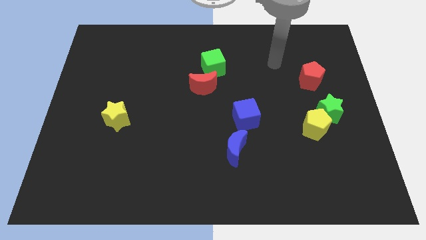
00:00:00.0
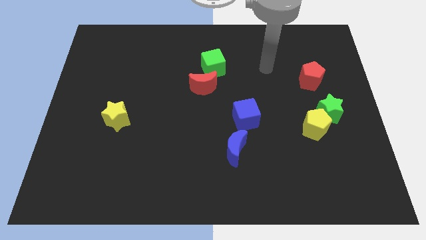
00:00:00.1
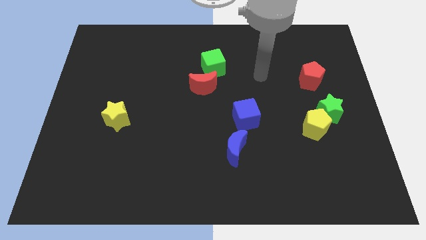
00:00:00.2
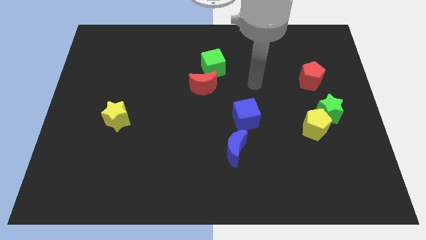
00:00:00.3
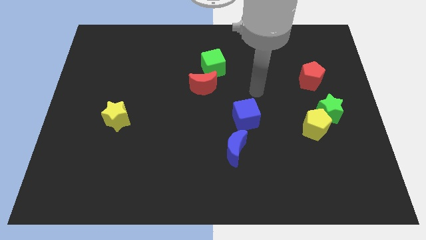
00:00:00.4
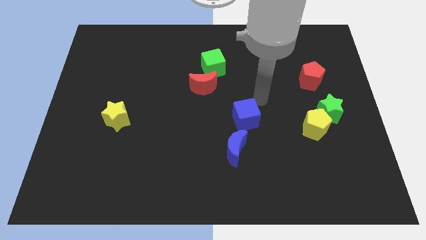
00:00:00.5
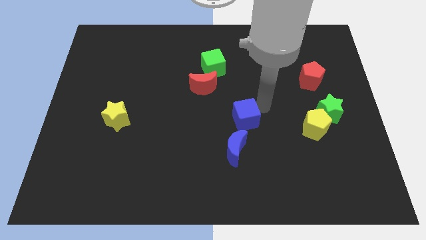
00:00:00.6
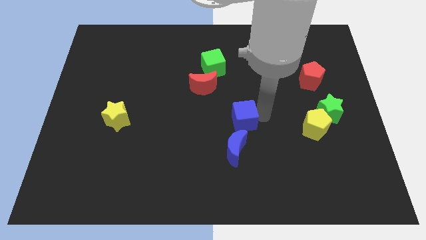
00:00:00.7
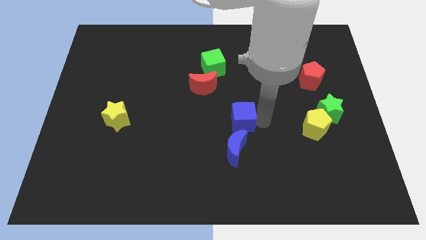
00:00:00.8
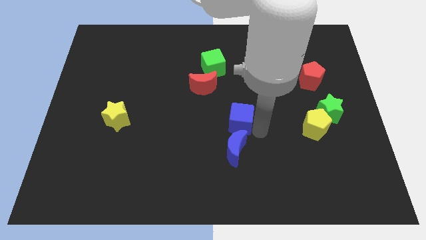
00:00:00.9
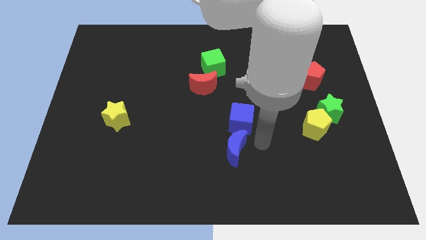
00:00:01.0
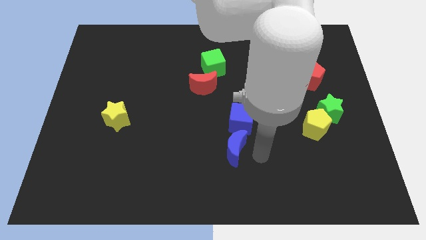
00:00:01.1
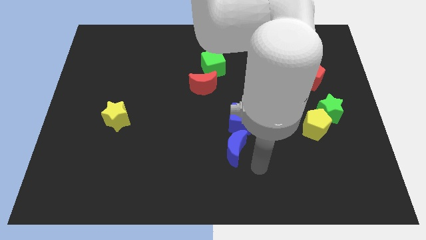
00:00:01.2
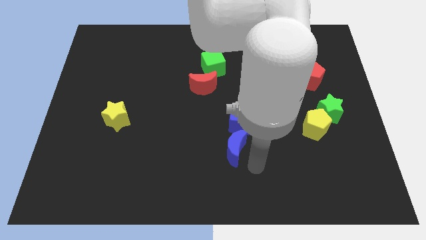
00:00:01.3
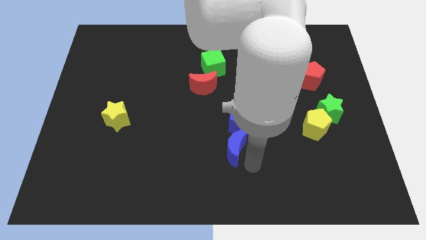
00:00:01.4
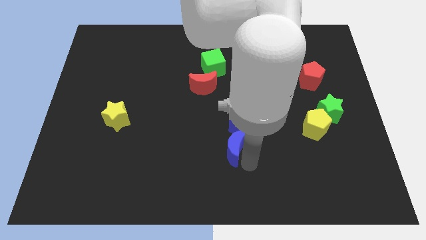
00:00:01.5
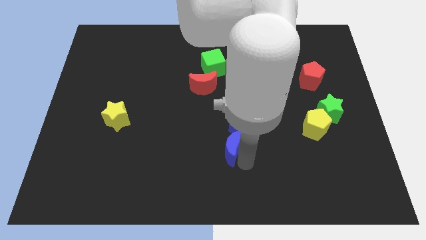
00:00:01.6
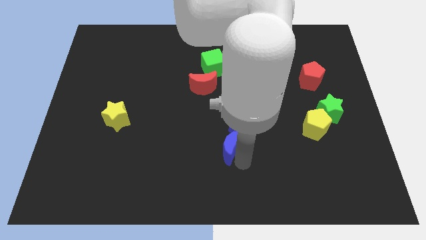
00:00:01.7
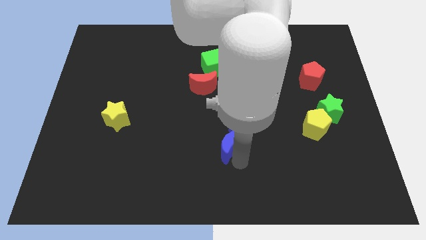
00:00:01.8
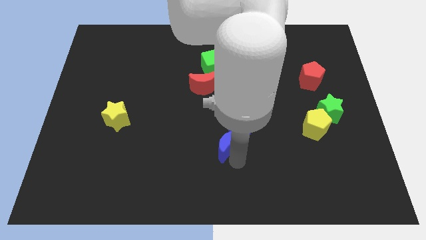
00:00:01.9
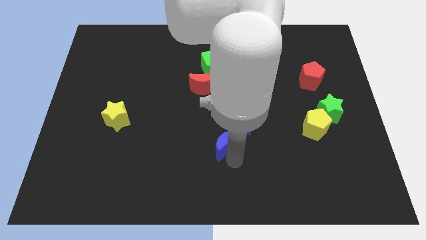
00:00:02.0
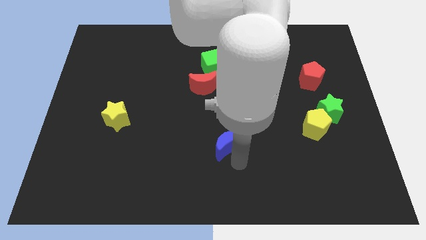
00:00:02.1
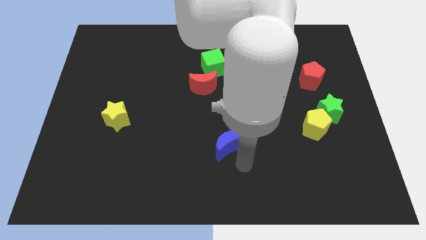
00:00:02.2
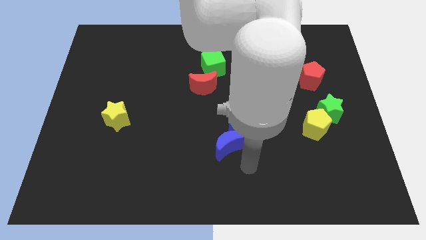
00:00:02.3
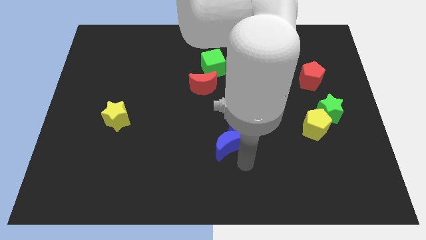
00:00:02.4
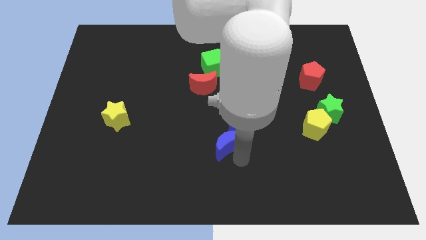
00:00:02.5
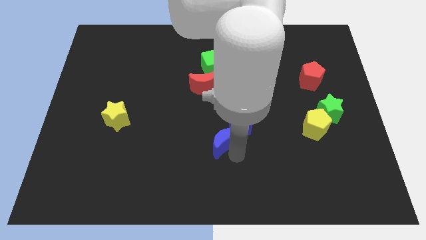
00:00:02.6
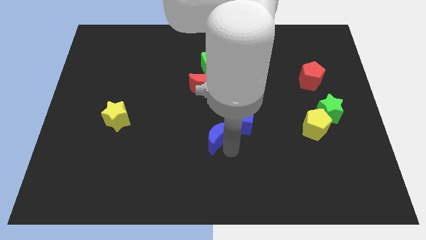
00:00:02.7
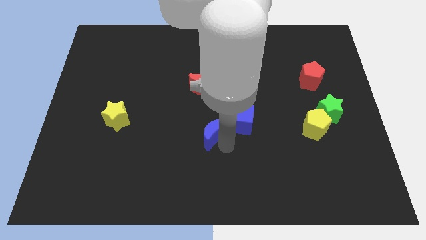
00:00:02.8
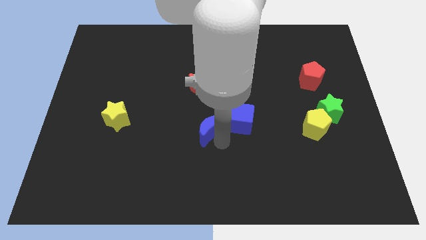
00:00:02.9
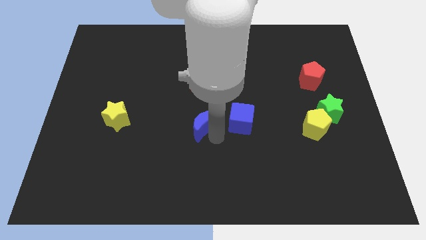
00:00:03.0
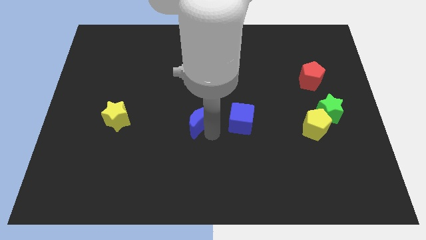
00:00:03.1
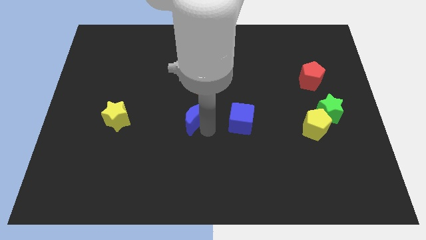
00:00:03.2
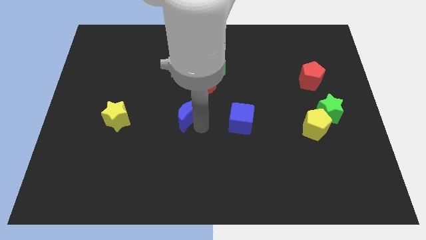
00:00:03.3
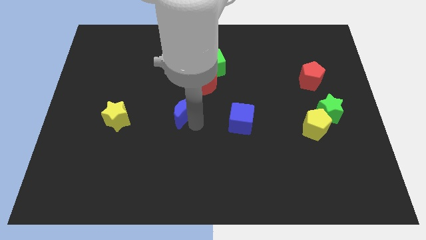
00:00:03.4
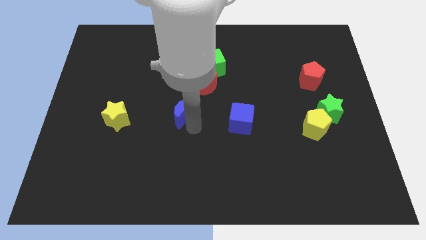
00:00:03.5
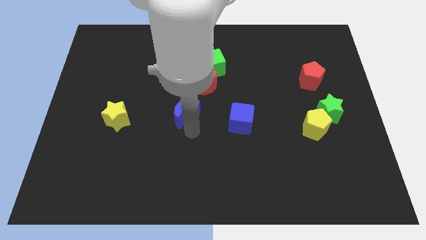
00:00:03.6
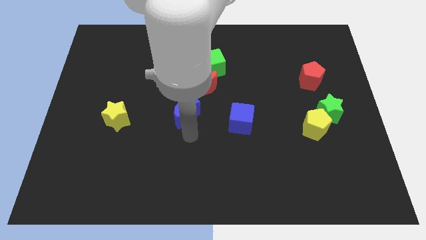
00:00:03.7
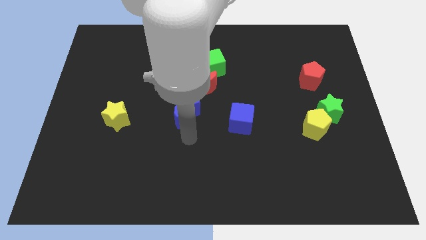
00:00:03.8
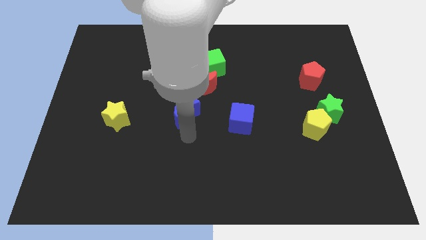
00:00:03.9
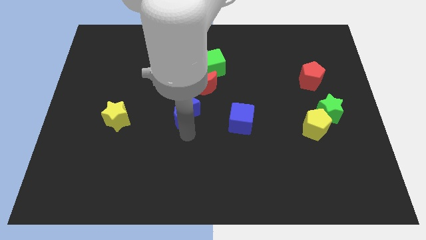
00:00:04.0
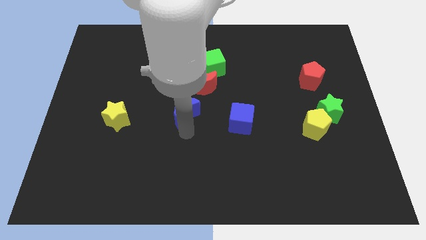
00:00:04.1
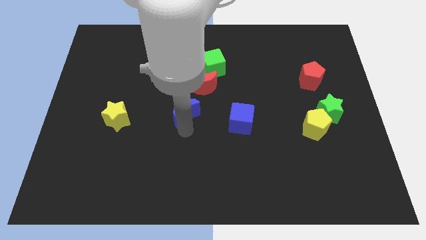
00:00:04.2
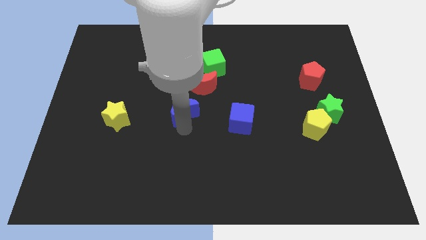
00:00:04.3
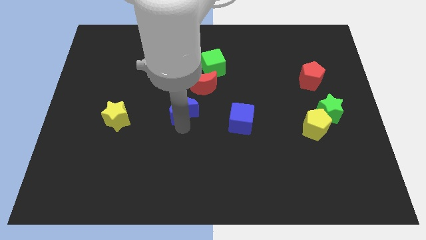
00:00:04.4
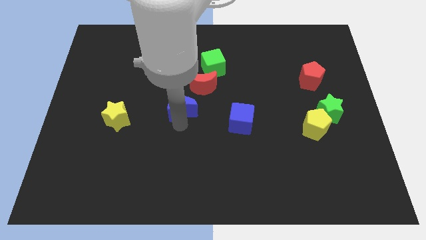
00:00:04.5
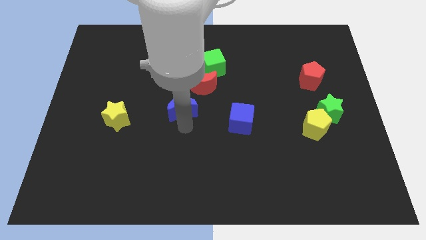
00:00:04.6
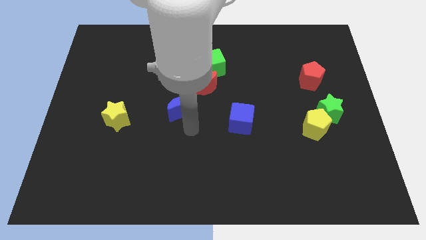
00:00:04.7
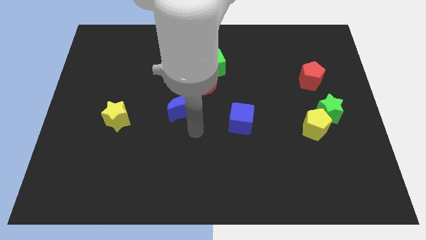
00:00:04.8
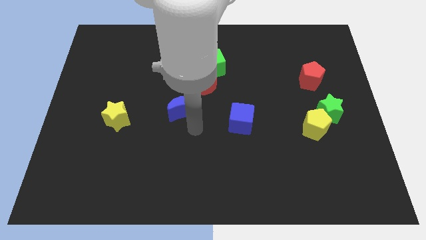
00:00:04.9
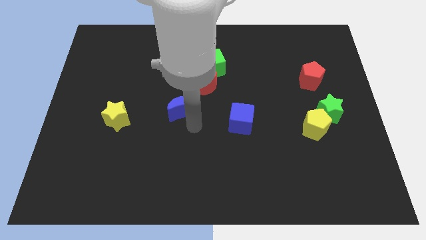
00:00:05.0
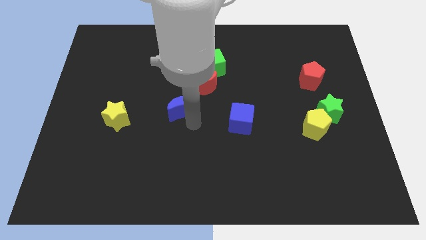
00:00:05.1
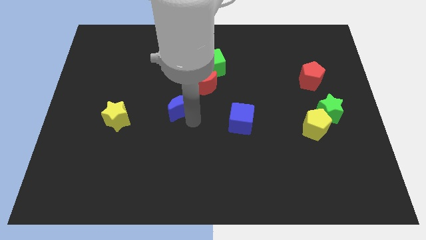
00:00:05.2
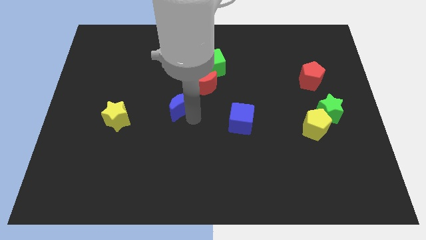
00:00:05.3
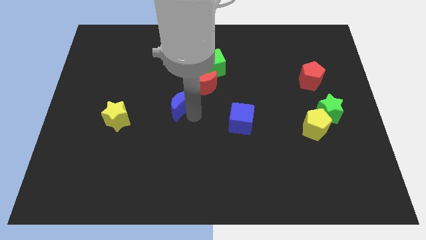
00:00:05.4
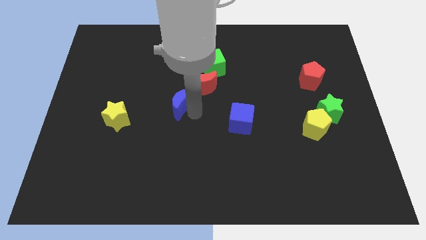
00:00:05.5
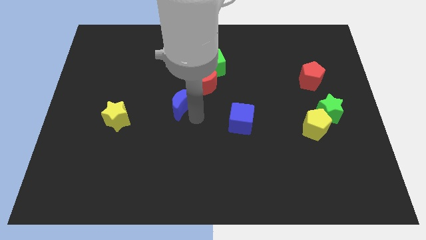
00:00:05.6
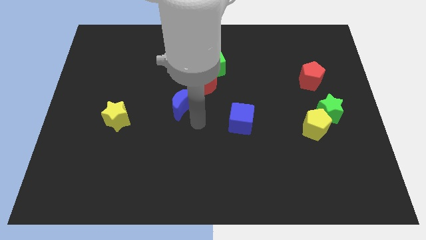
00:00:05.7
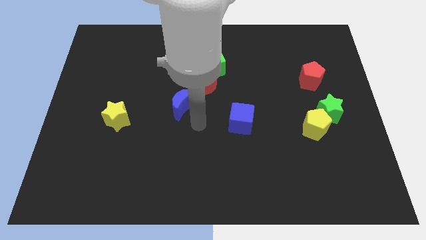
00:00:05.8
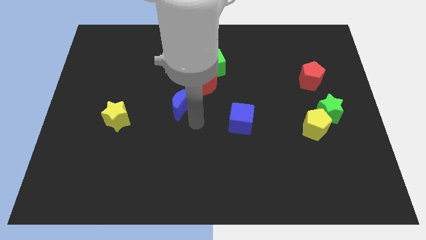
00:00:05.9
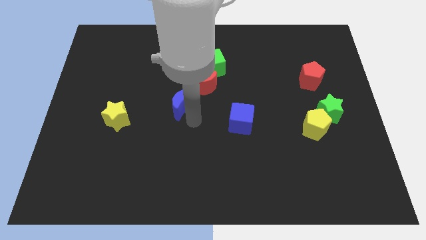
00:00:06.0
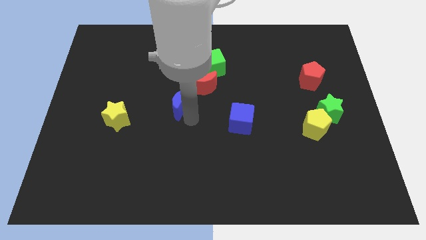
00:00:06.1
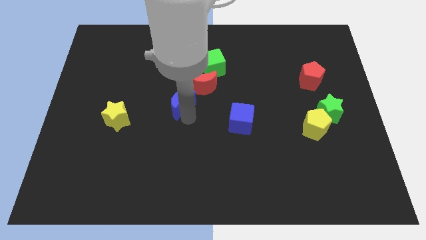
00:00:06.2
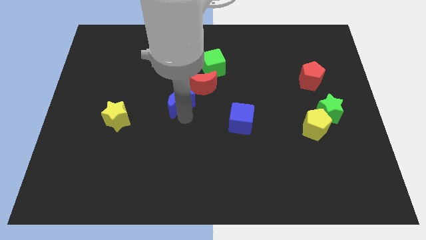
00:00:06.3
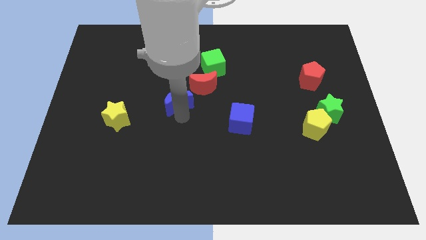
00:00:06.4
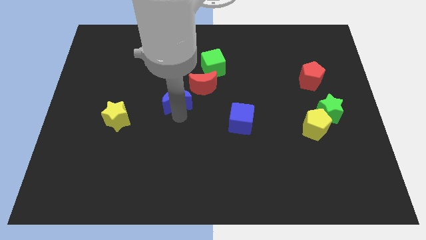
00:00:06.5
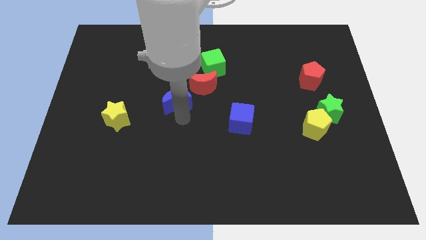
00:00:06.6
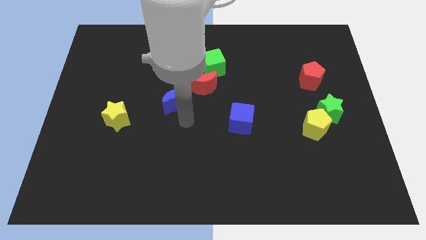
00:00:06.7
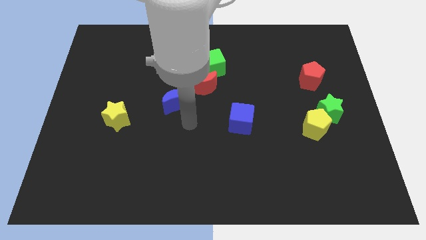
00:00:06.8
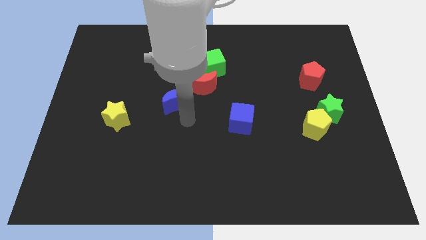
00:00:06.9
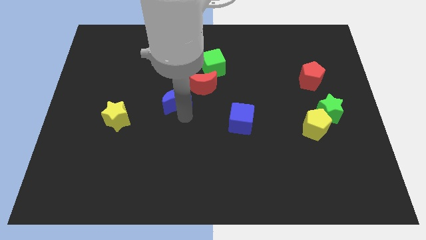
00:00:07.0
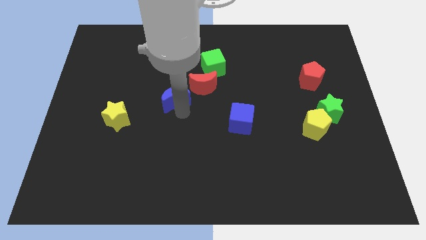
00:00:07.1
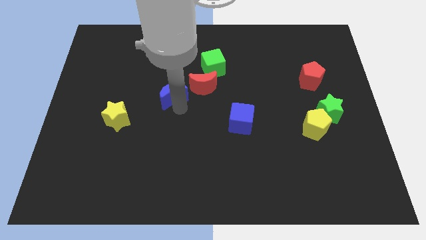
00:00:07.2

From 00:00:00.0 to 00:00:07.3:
slide the blue moon upwards and to the left

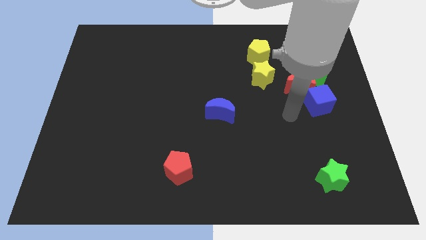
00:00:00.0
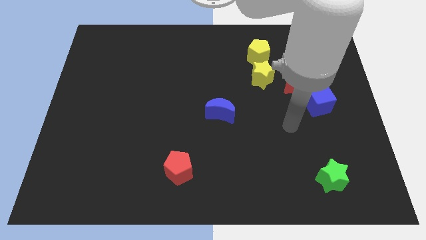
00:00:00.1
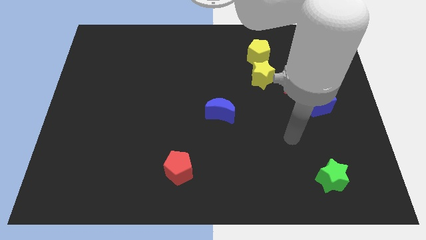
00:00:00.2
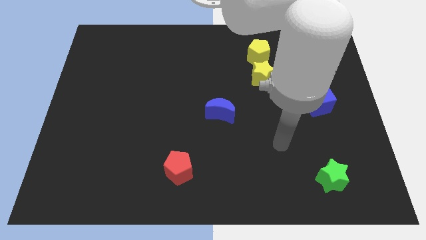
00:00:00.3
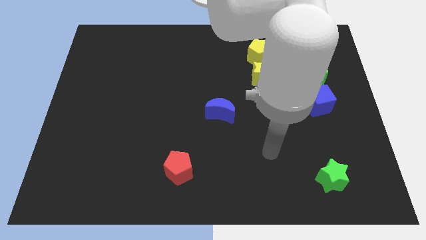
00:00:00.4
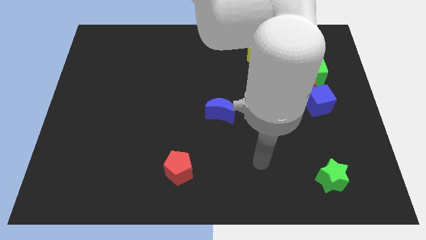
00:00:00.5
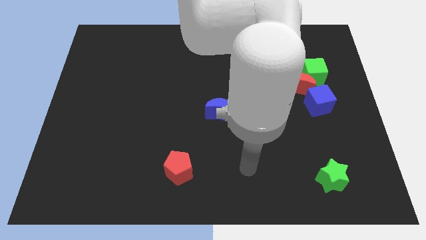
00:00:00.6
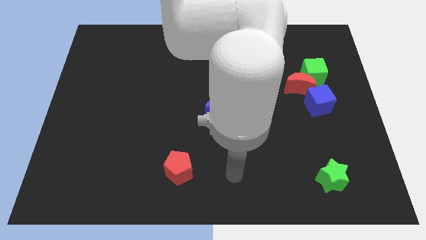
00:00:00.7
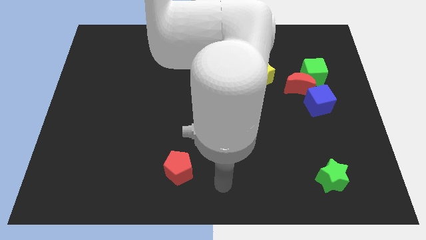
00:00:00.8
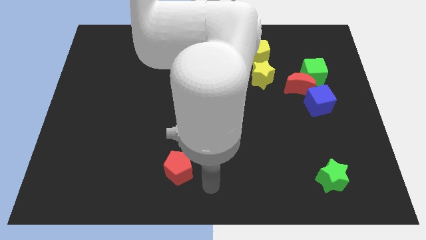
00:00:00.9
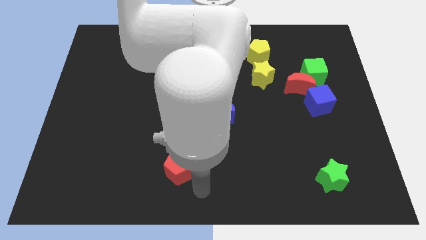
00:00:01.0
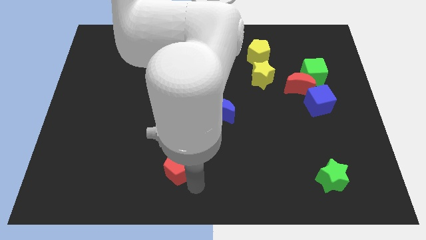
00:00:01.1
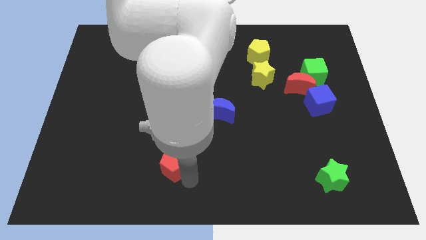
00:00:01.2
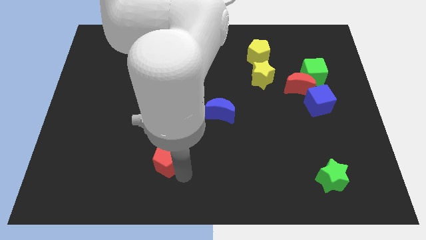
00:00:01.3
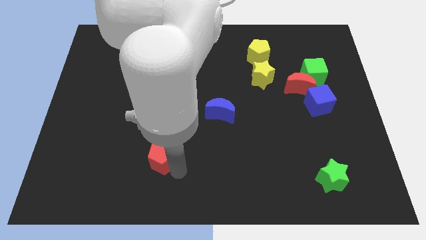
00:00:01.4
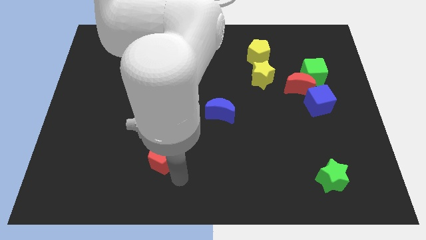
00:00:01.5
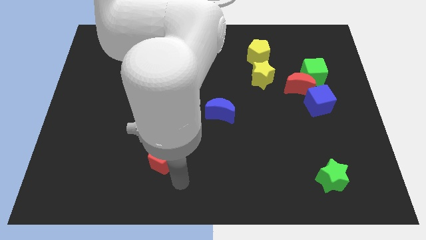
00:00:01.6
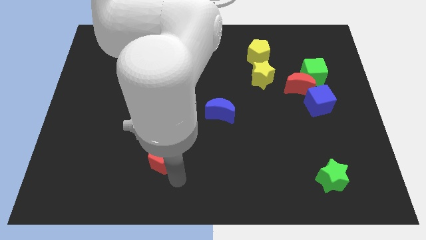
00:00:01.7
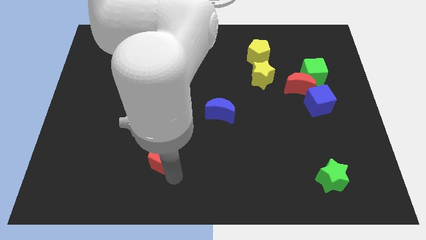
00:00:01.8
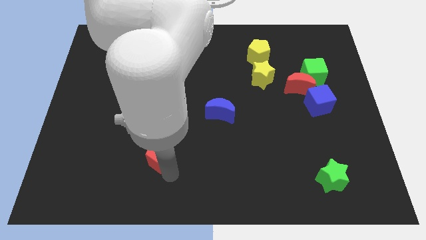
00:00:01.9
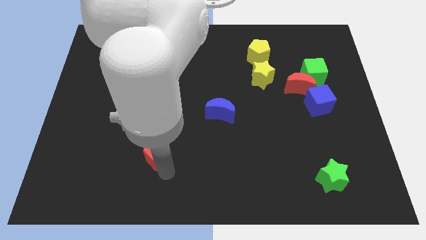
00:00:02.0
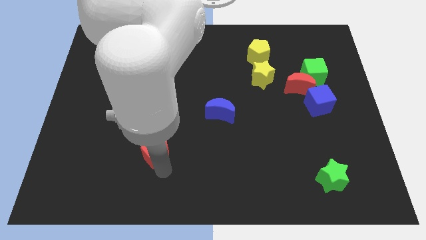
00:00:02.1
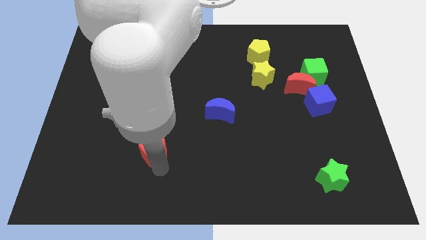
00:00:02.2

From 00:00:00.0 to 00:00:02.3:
slightly slide the red pentagon diagonally up and left
